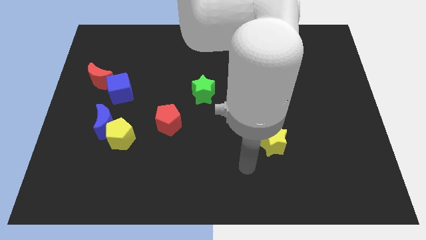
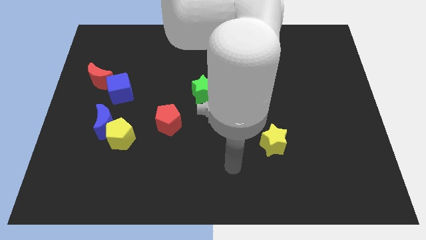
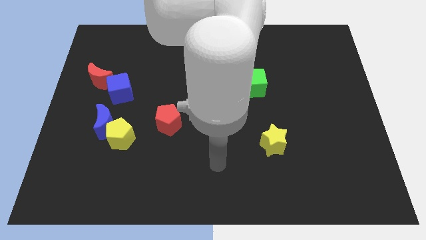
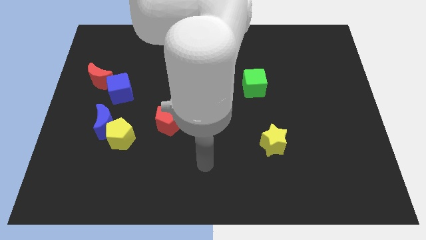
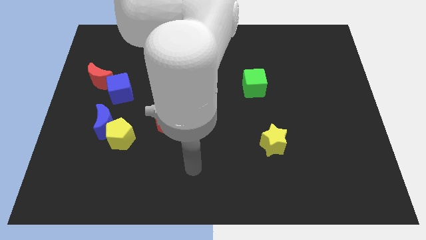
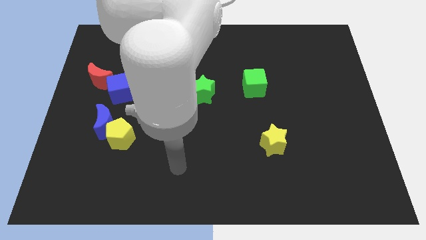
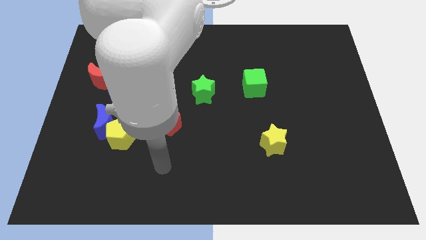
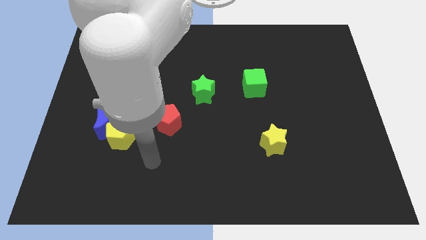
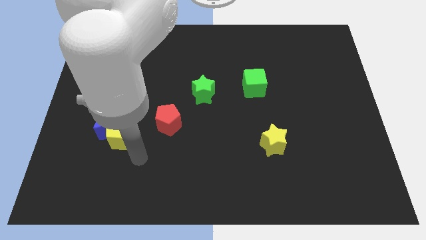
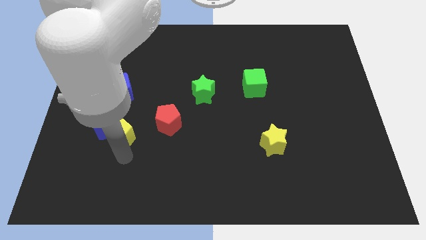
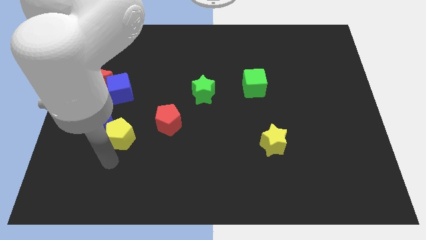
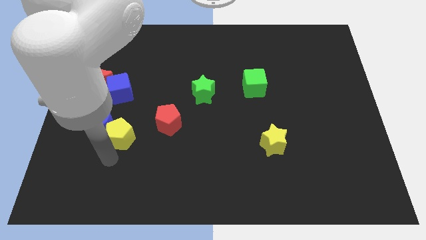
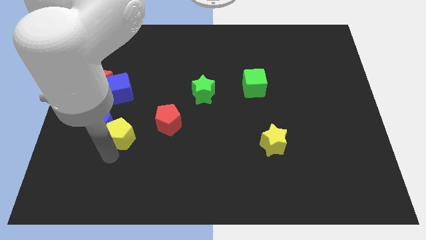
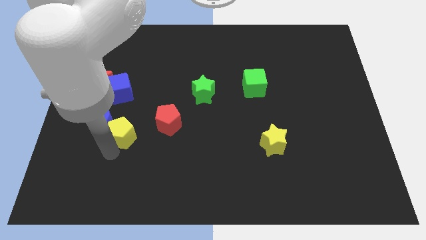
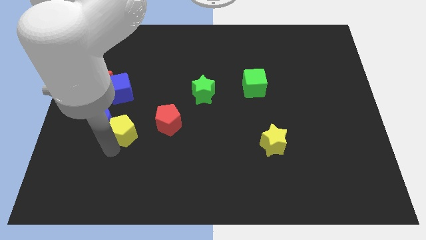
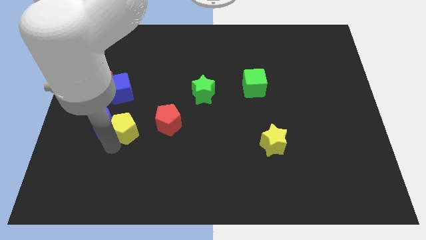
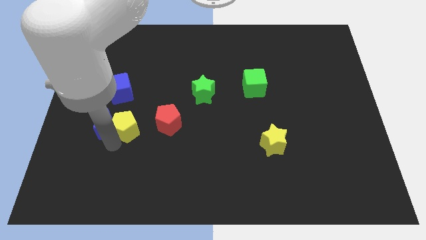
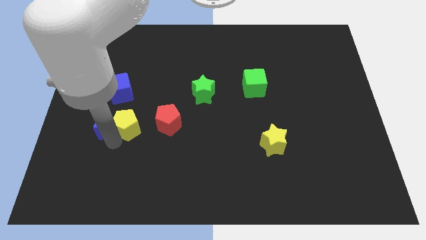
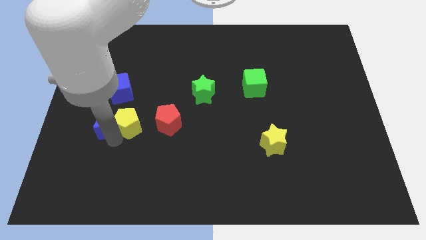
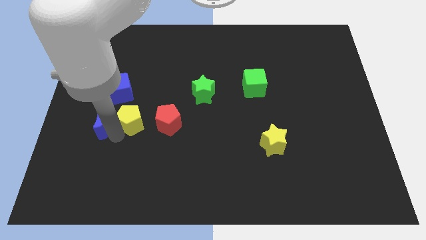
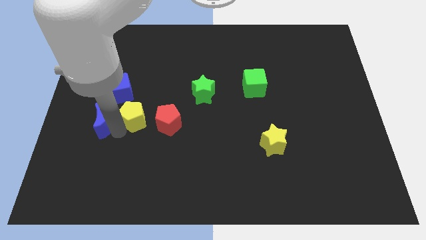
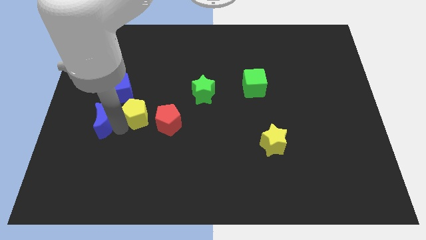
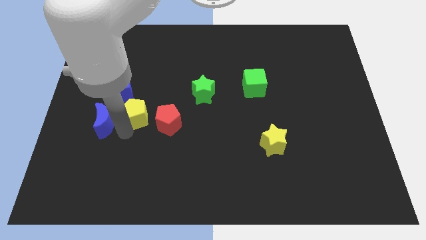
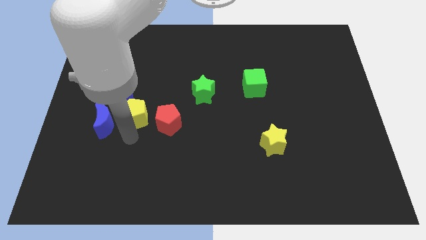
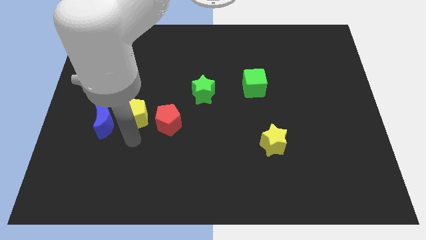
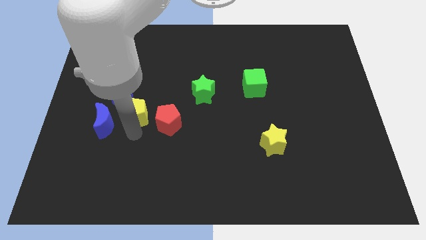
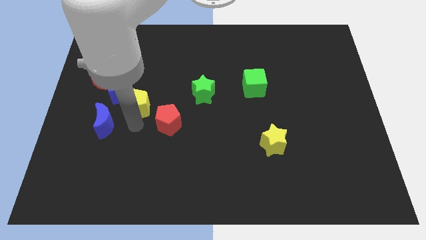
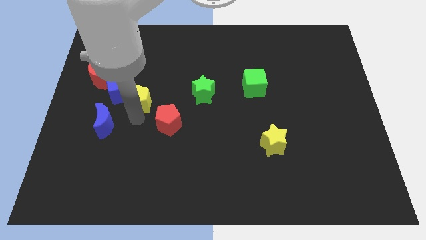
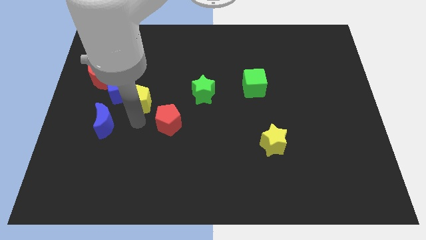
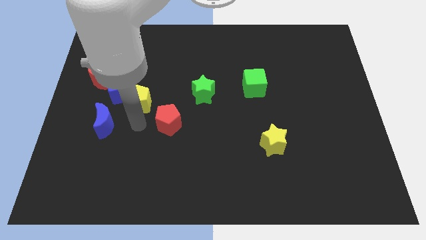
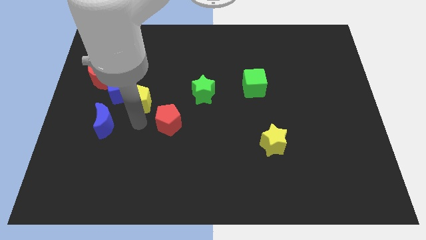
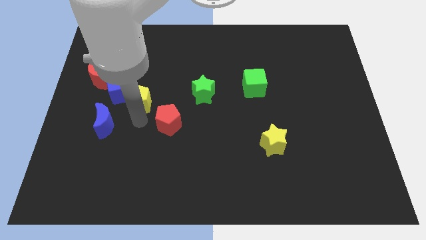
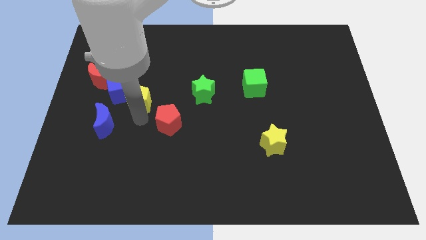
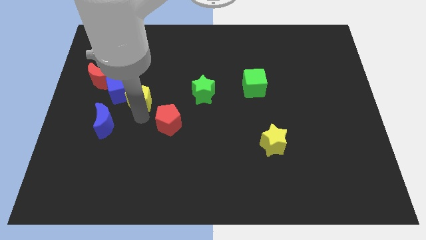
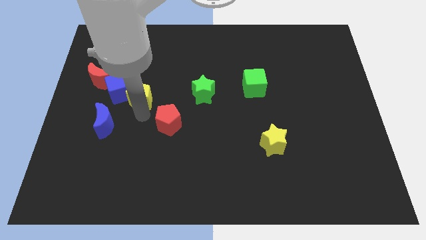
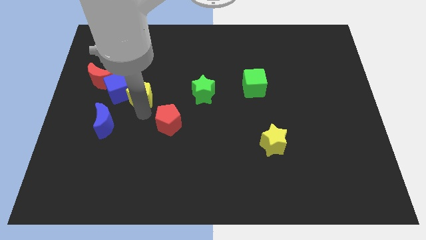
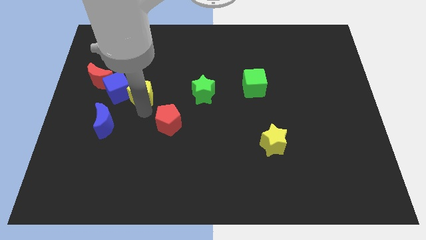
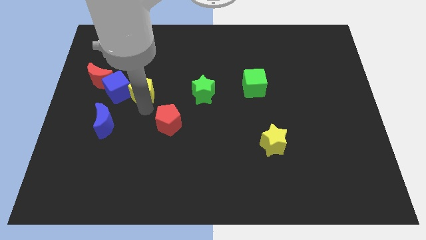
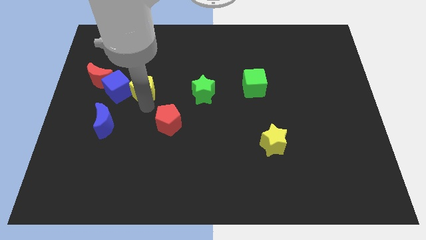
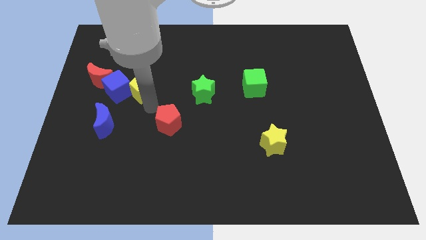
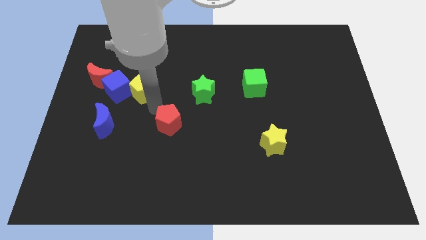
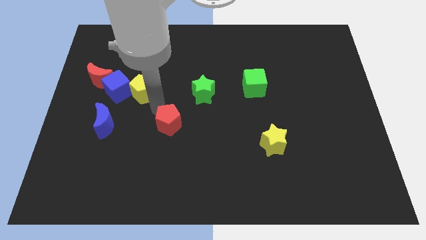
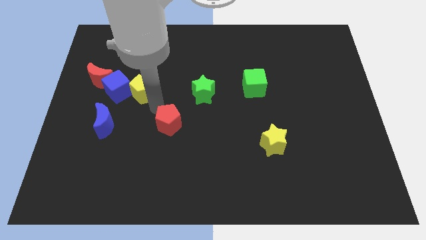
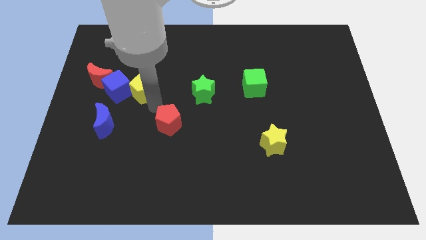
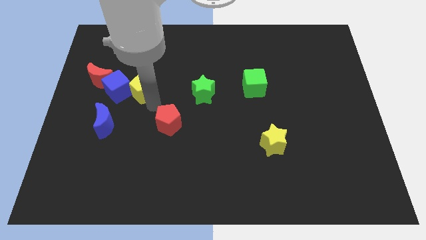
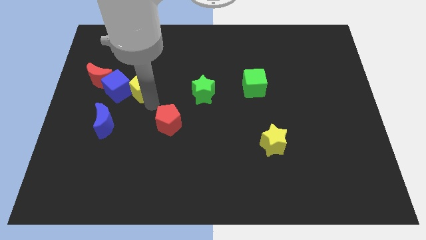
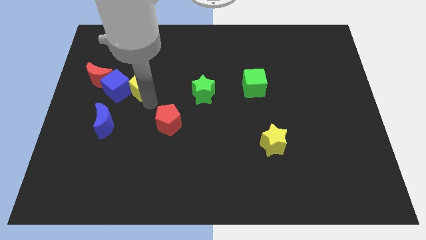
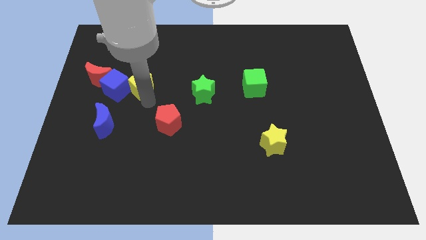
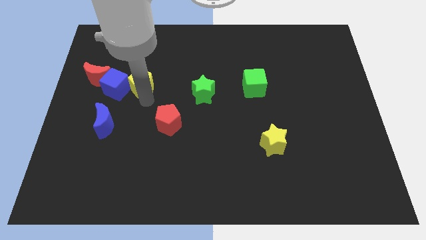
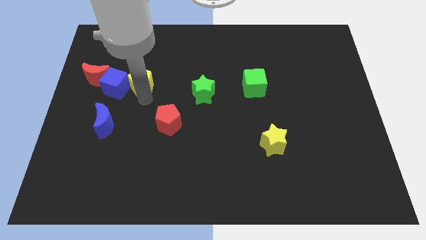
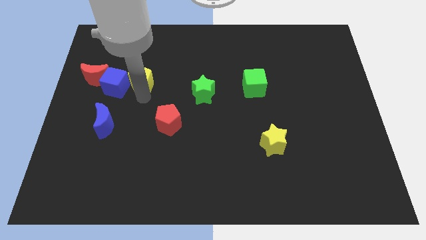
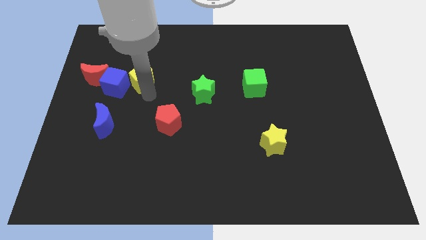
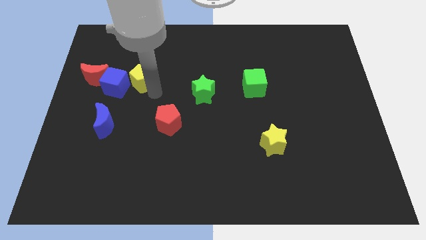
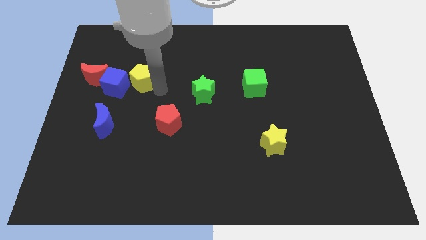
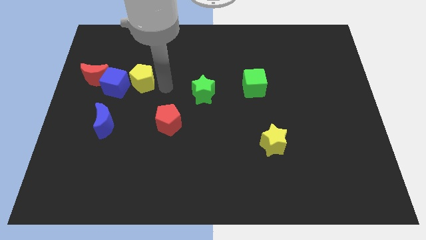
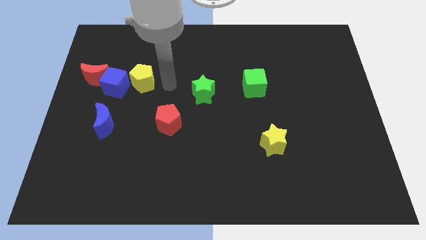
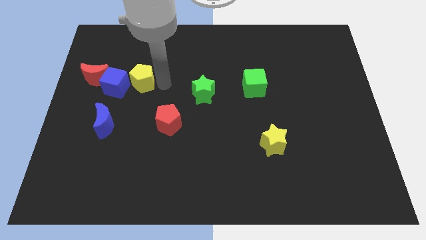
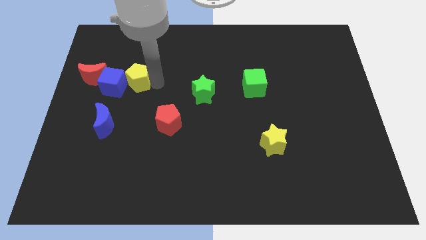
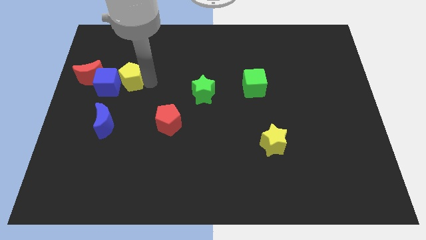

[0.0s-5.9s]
move the yellow pentagon to the top side of the blue moon

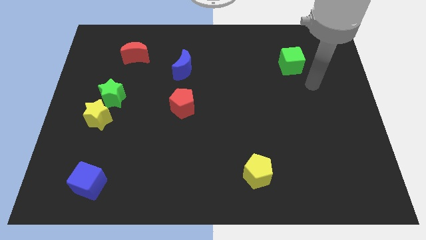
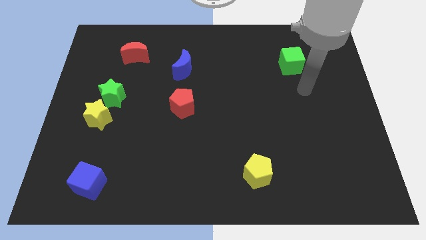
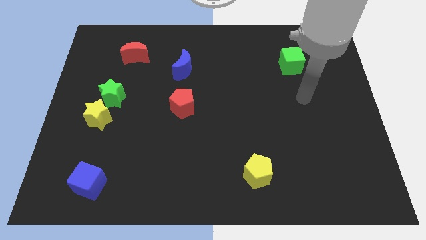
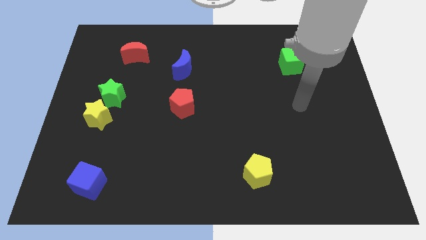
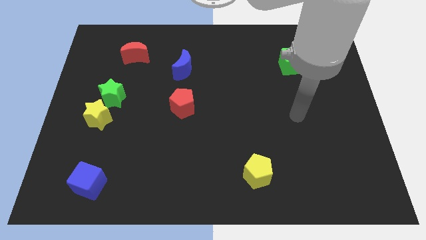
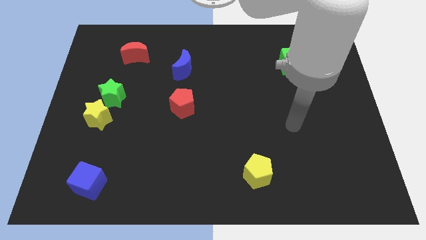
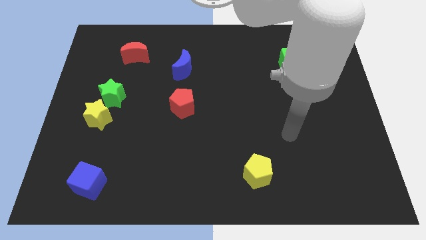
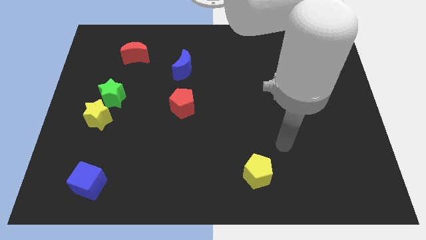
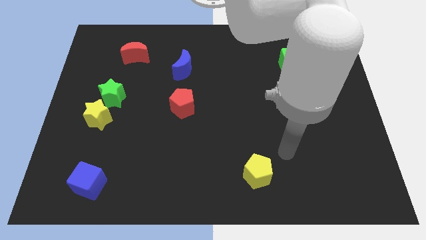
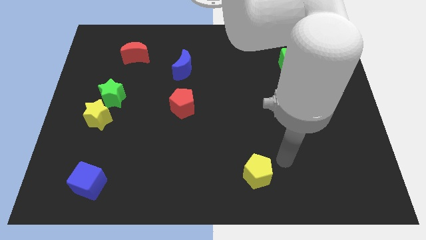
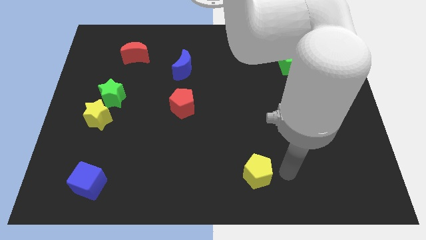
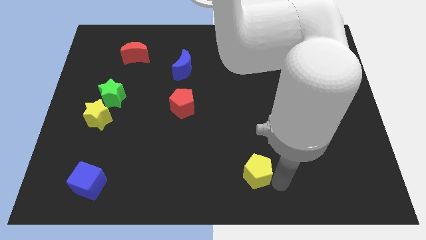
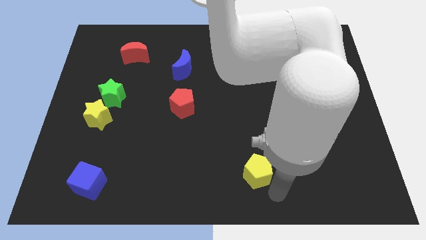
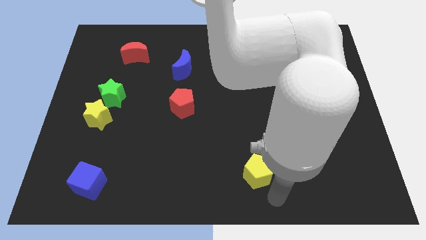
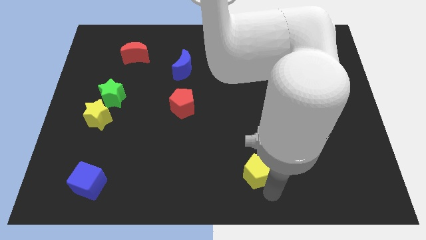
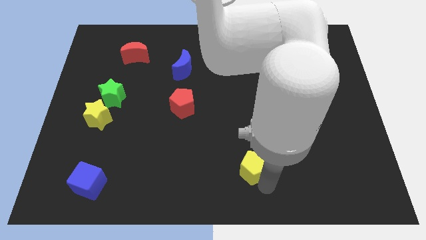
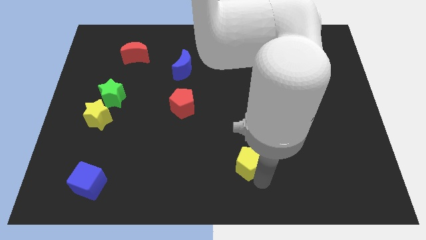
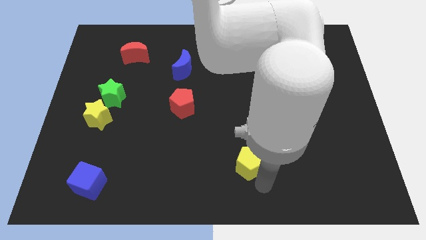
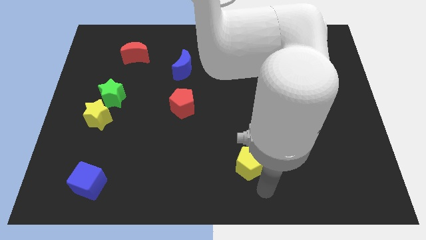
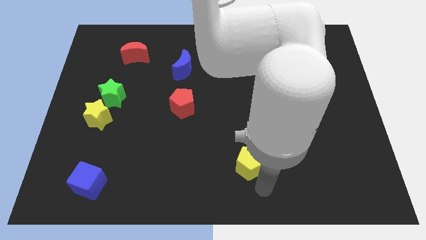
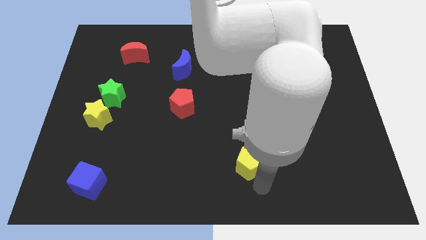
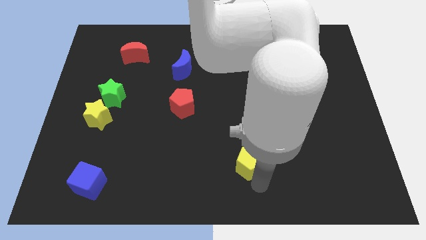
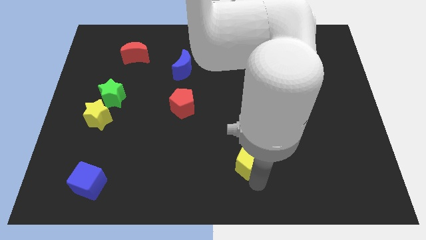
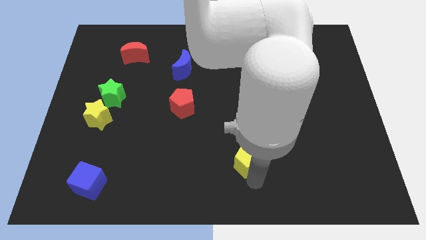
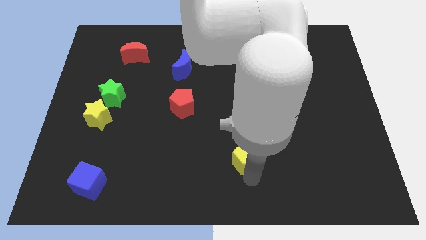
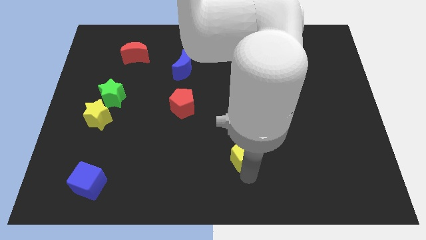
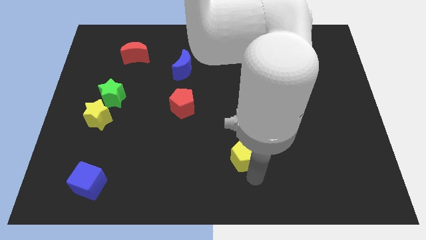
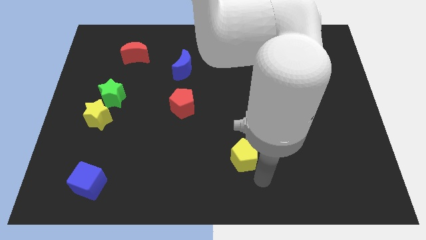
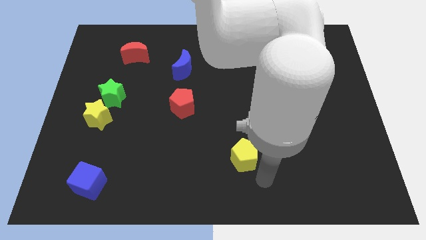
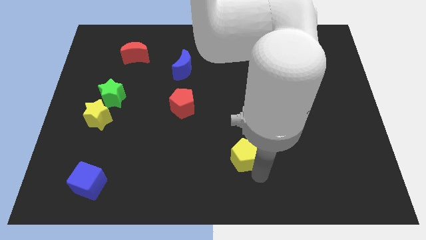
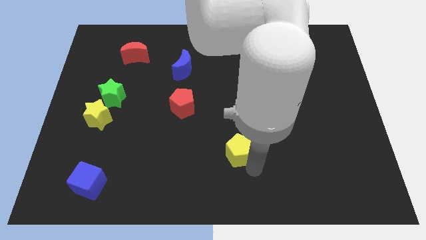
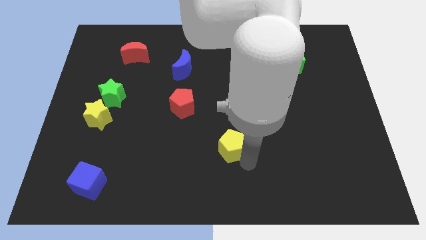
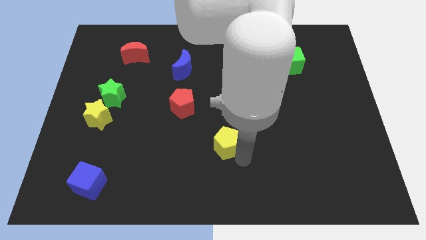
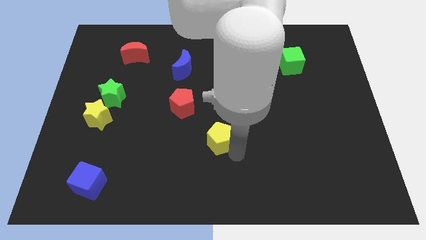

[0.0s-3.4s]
move the yellow pentagon to the bottom right side of the red pentagon
